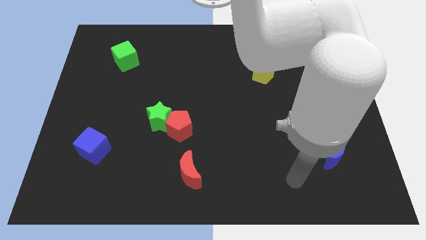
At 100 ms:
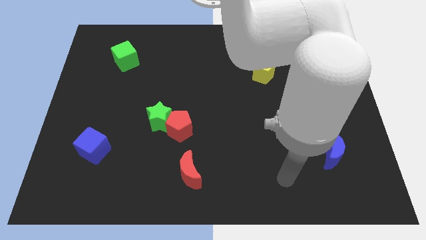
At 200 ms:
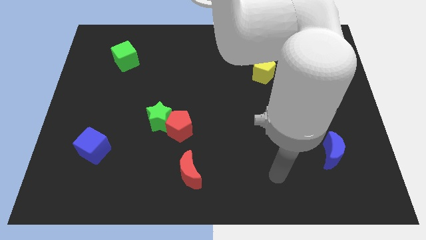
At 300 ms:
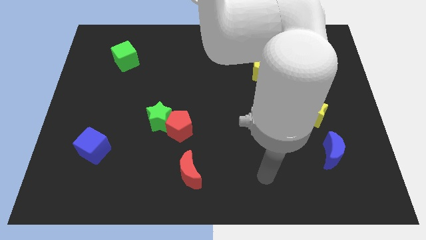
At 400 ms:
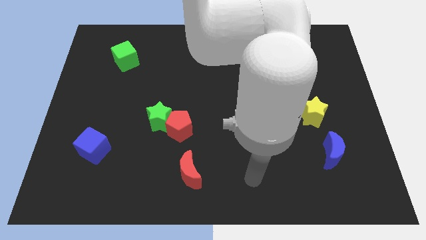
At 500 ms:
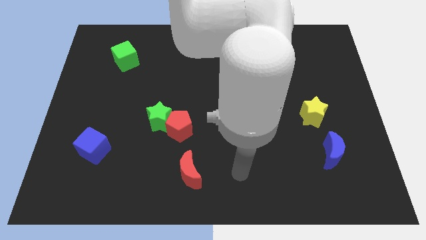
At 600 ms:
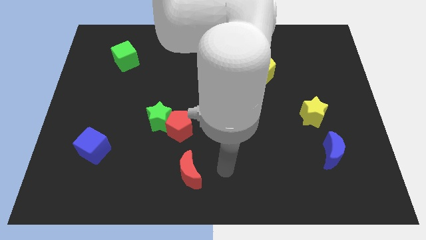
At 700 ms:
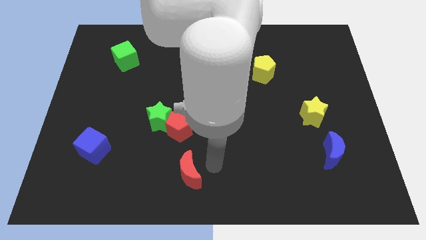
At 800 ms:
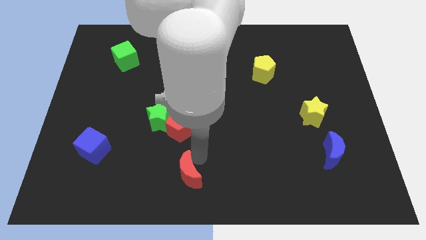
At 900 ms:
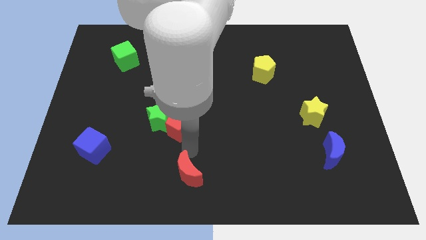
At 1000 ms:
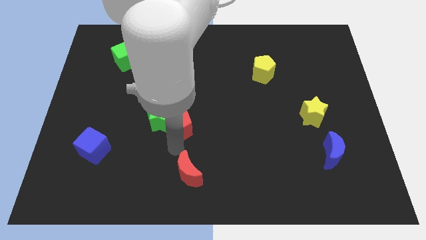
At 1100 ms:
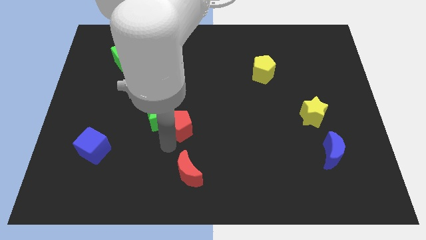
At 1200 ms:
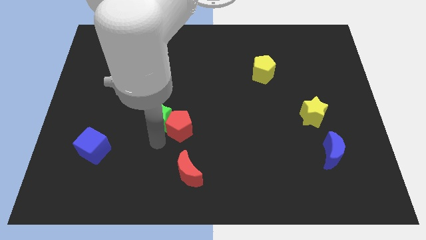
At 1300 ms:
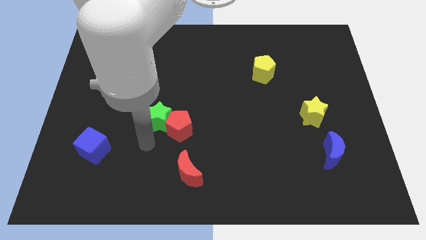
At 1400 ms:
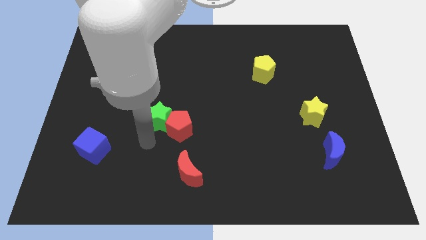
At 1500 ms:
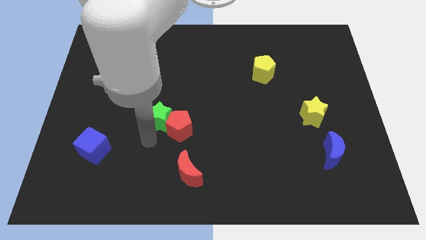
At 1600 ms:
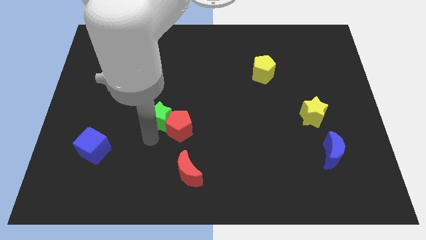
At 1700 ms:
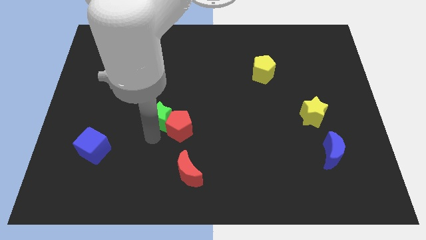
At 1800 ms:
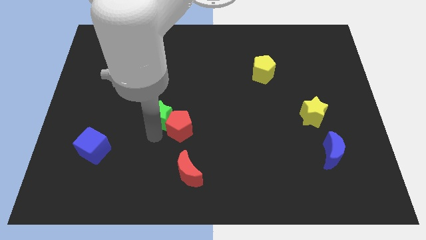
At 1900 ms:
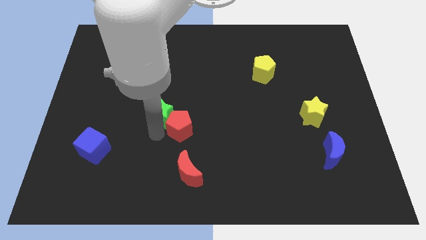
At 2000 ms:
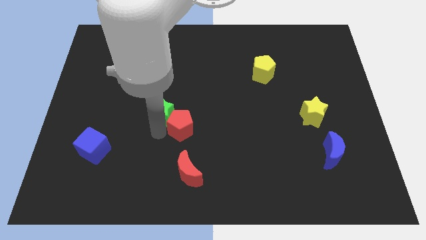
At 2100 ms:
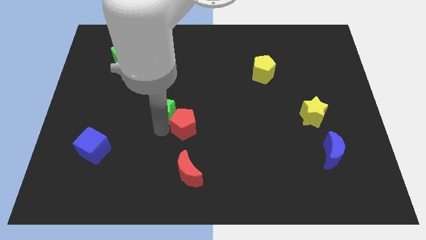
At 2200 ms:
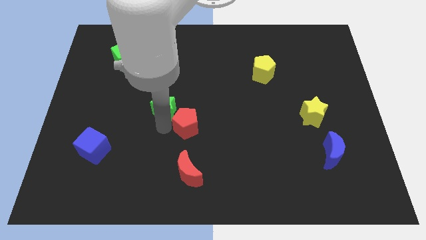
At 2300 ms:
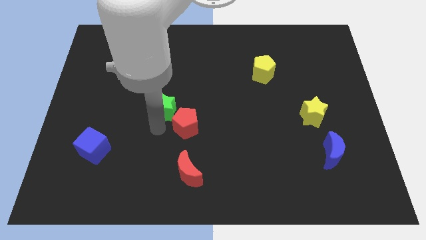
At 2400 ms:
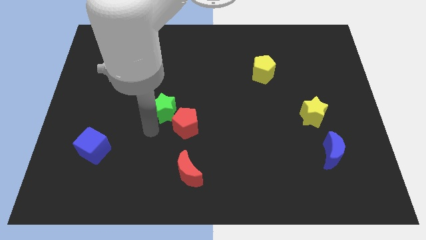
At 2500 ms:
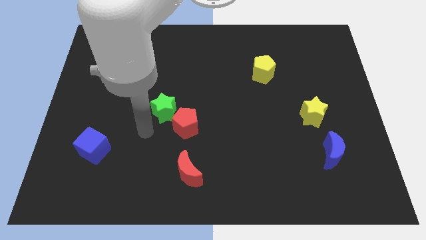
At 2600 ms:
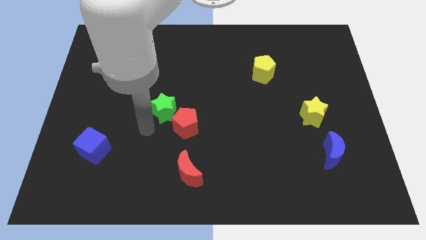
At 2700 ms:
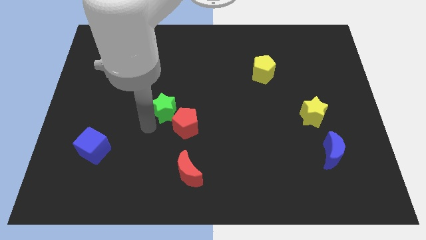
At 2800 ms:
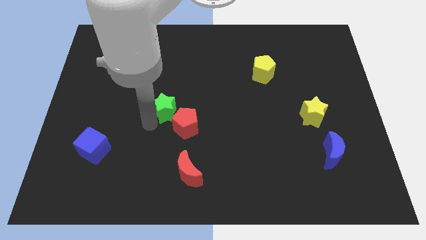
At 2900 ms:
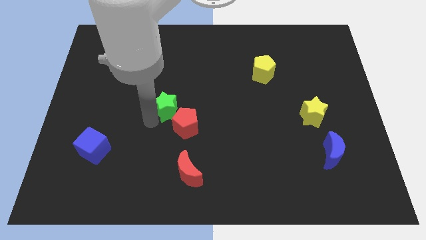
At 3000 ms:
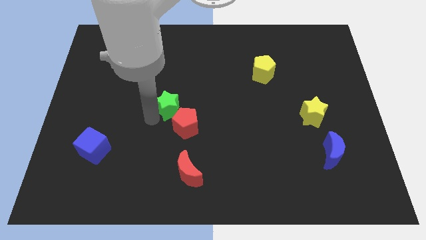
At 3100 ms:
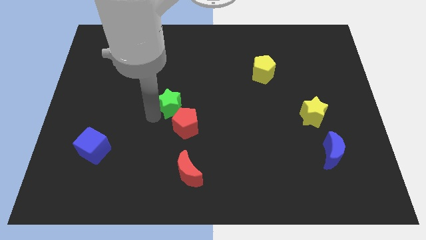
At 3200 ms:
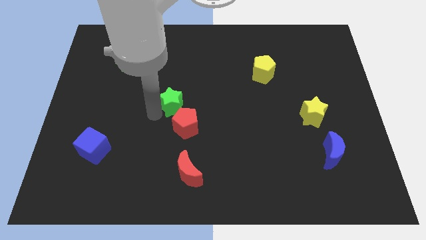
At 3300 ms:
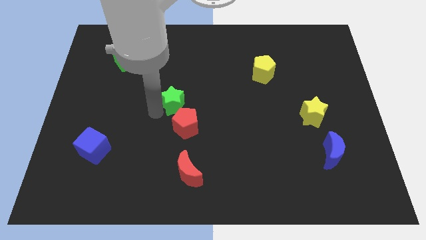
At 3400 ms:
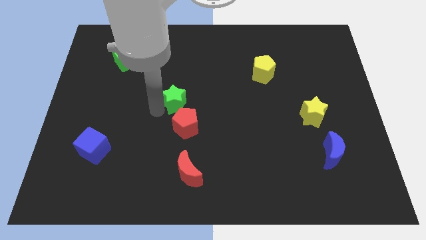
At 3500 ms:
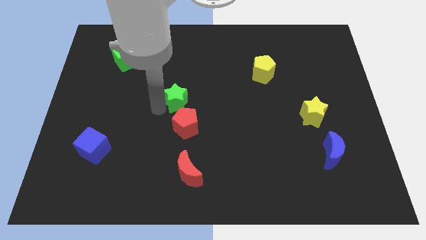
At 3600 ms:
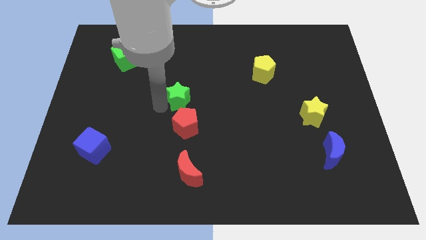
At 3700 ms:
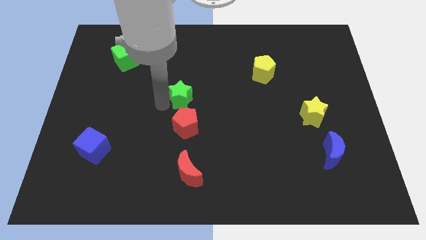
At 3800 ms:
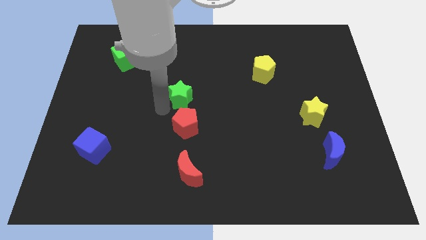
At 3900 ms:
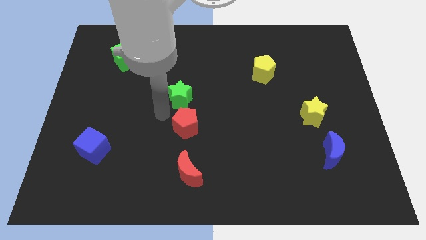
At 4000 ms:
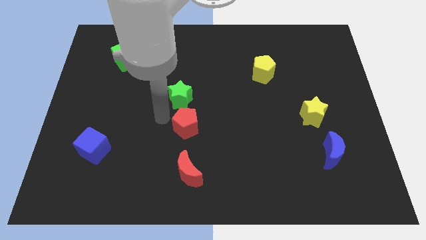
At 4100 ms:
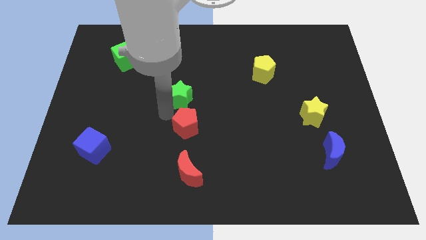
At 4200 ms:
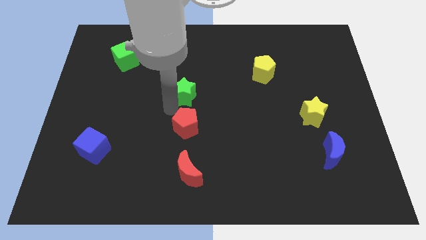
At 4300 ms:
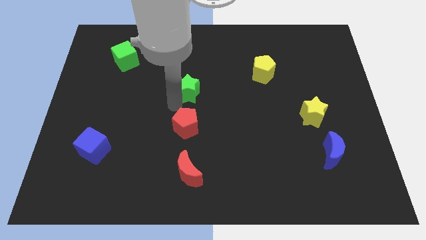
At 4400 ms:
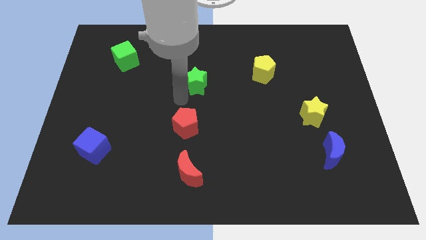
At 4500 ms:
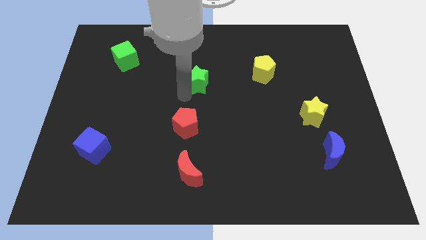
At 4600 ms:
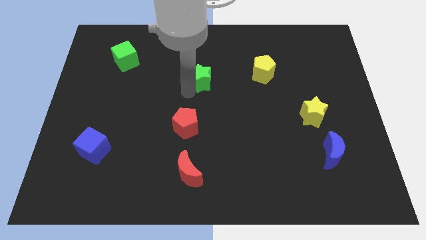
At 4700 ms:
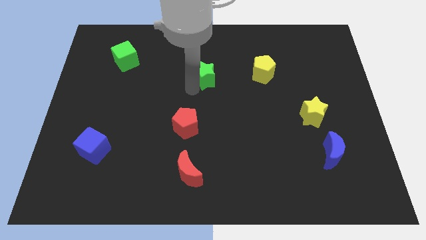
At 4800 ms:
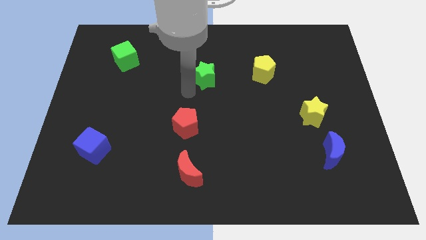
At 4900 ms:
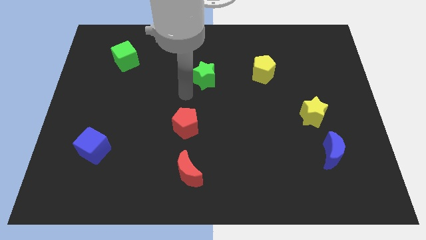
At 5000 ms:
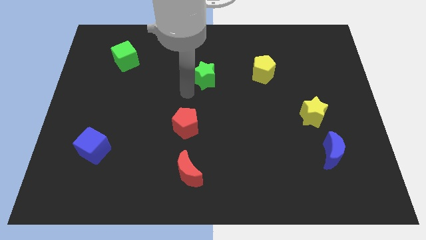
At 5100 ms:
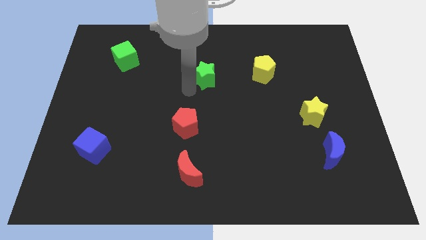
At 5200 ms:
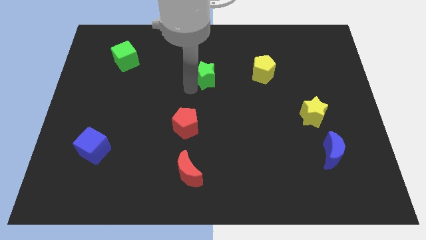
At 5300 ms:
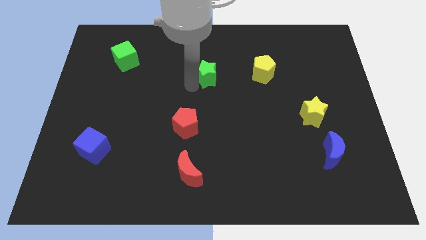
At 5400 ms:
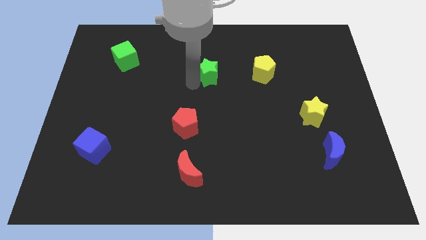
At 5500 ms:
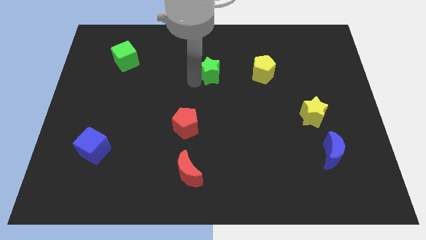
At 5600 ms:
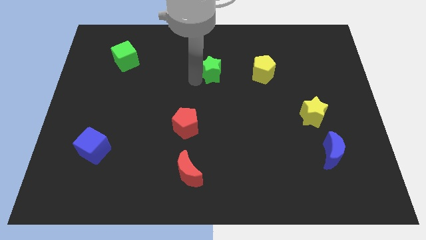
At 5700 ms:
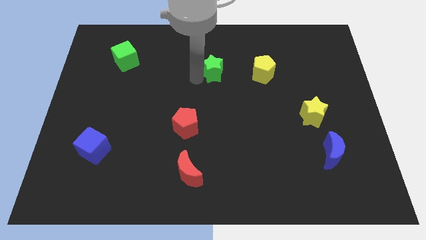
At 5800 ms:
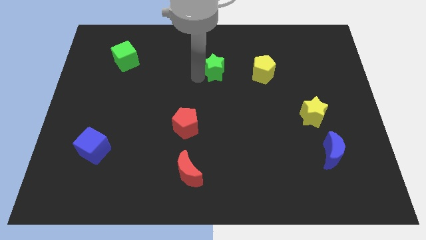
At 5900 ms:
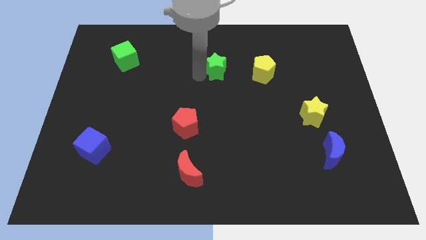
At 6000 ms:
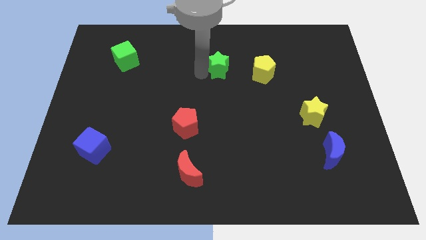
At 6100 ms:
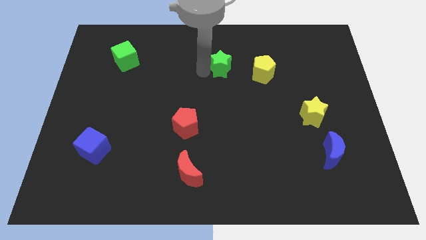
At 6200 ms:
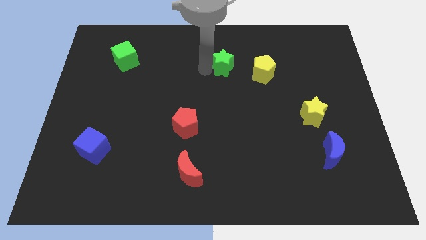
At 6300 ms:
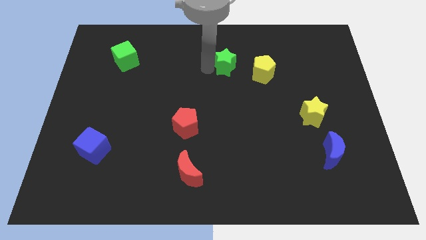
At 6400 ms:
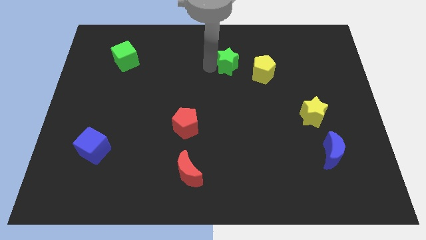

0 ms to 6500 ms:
slide the green star diagonally up and to the left of the yellow pentagon
